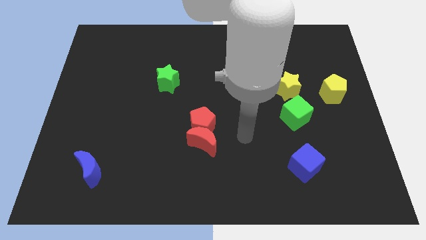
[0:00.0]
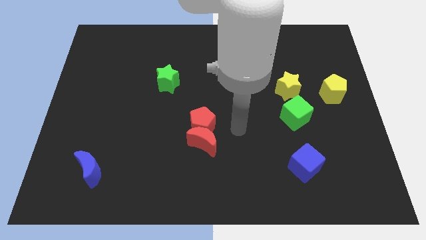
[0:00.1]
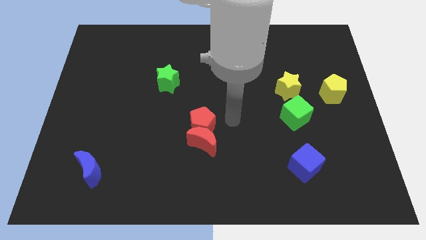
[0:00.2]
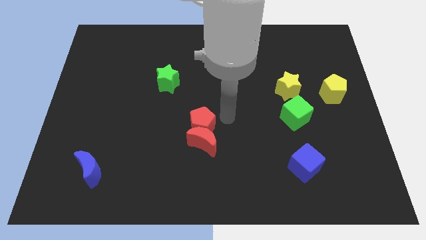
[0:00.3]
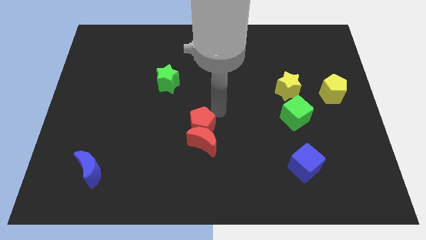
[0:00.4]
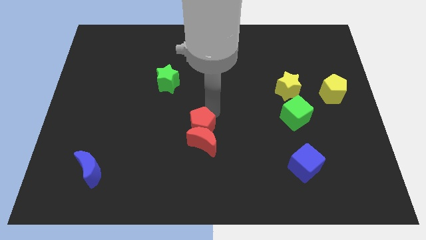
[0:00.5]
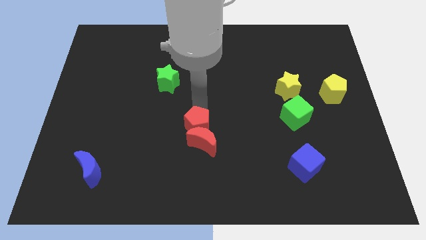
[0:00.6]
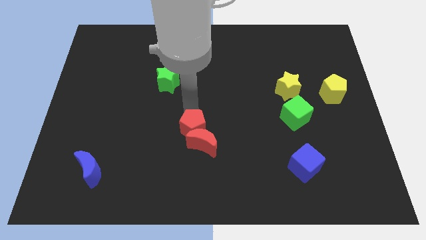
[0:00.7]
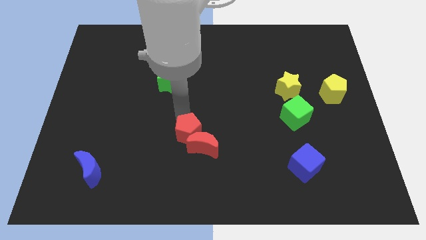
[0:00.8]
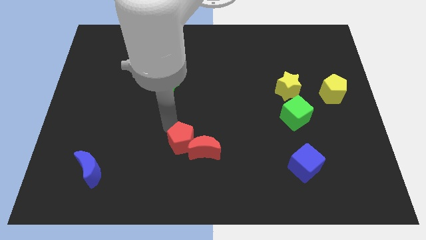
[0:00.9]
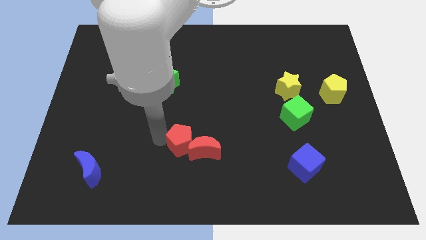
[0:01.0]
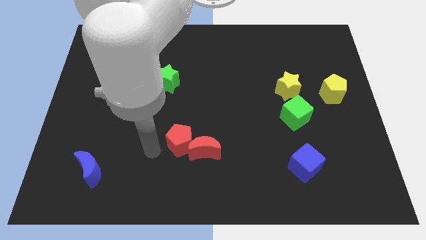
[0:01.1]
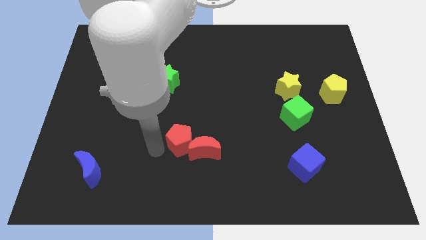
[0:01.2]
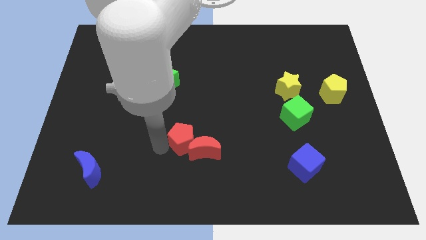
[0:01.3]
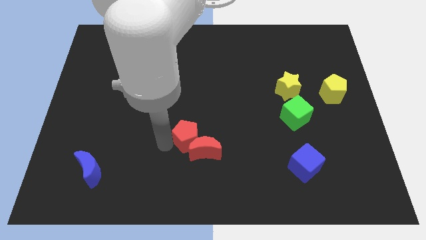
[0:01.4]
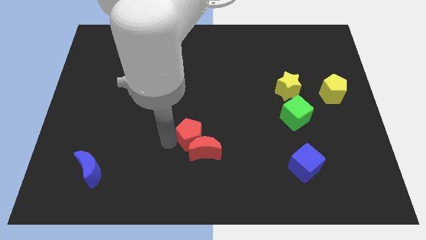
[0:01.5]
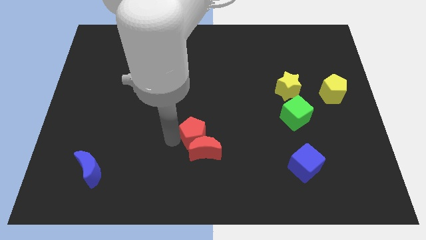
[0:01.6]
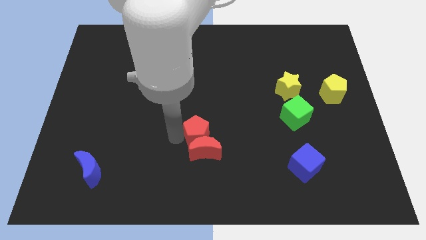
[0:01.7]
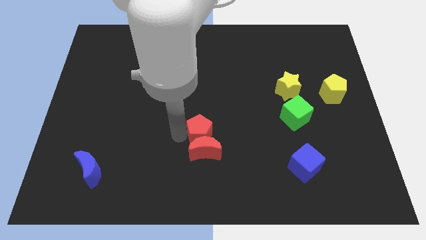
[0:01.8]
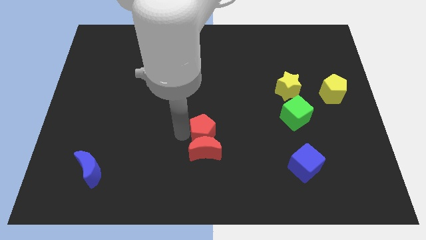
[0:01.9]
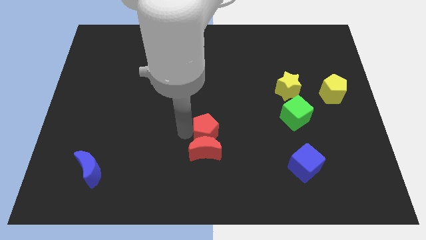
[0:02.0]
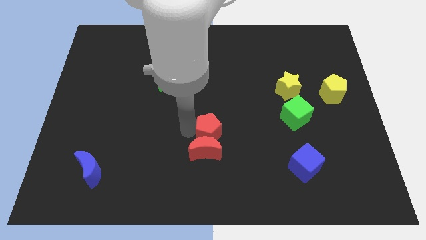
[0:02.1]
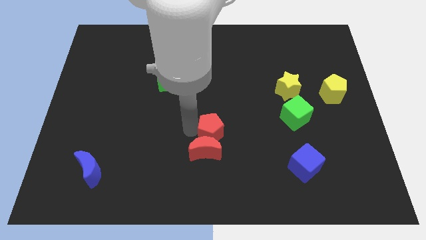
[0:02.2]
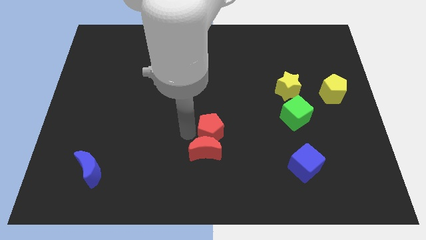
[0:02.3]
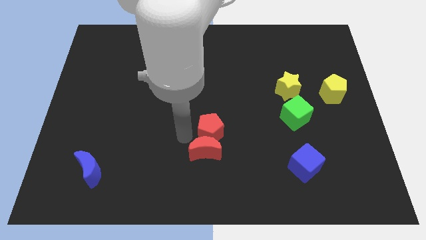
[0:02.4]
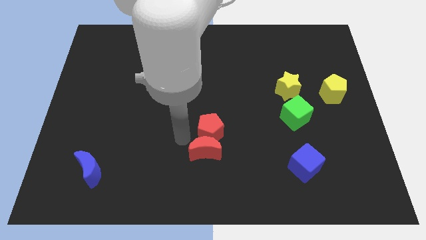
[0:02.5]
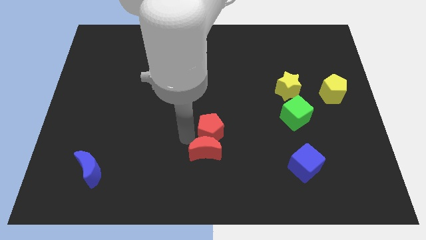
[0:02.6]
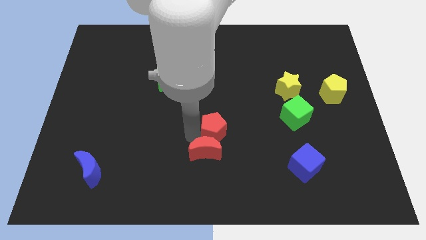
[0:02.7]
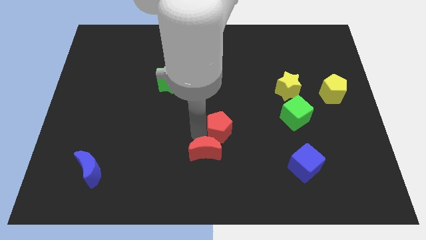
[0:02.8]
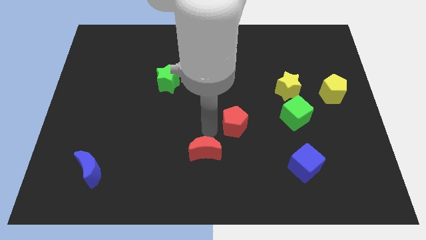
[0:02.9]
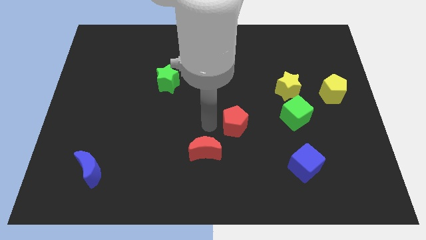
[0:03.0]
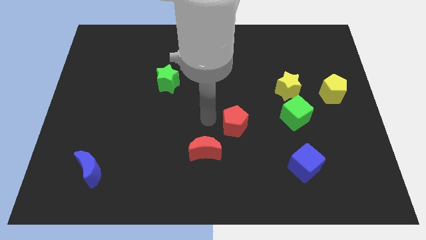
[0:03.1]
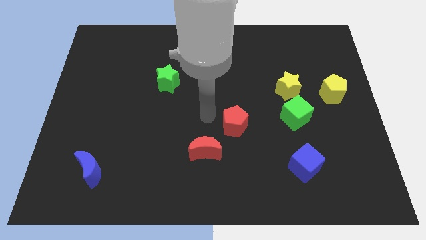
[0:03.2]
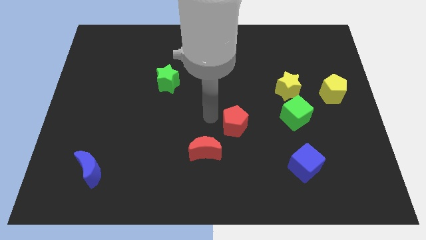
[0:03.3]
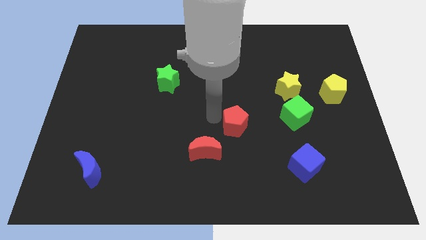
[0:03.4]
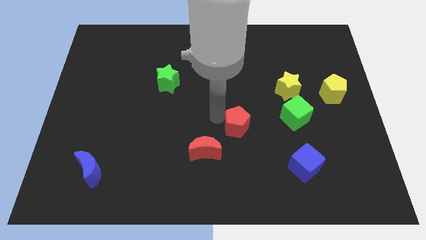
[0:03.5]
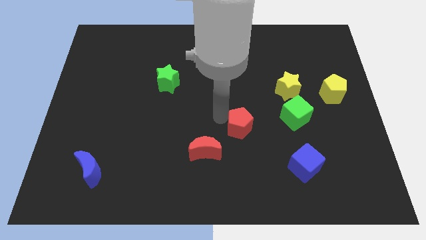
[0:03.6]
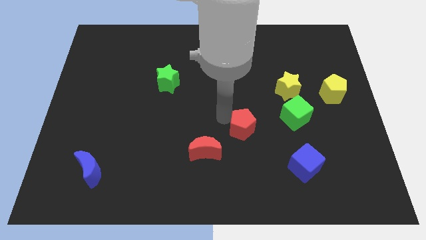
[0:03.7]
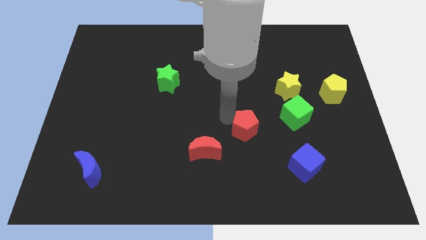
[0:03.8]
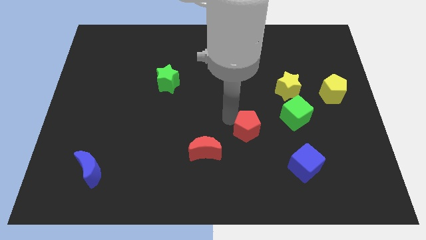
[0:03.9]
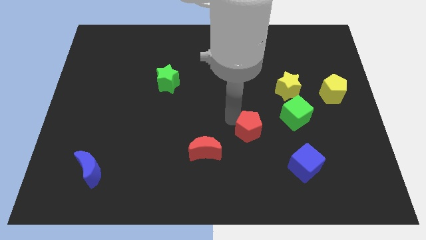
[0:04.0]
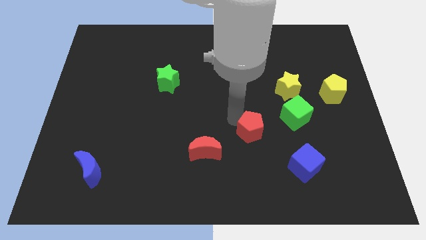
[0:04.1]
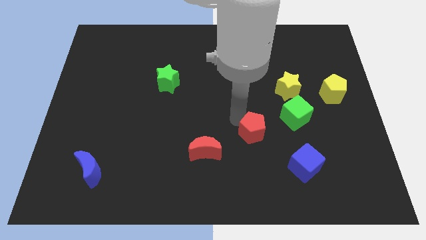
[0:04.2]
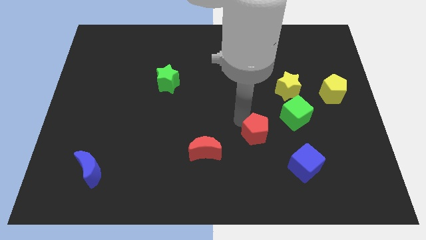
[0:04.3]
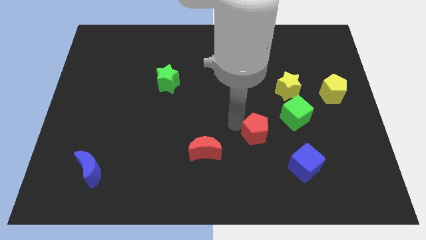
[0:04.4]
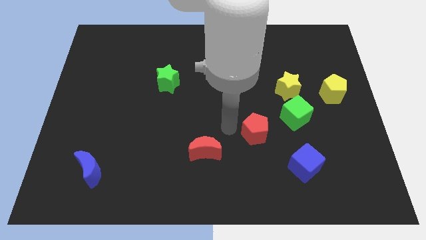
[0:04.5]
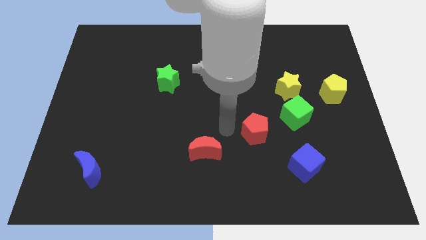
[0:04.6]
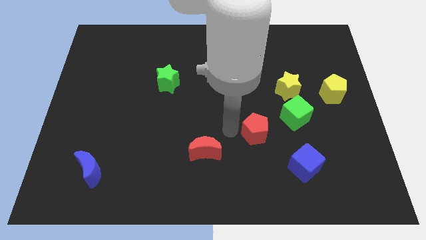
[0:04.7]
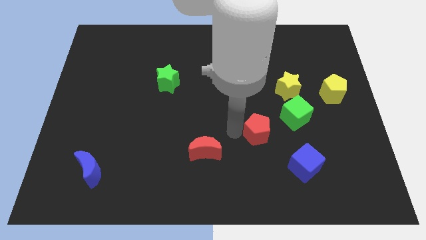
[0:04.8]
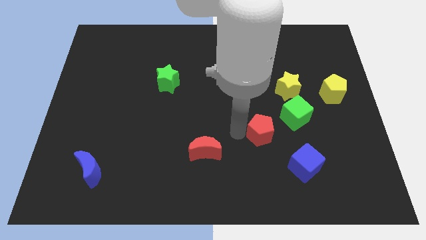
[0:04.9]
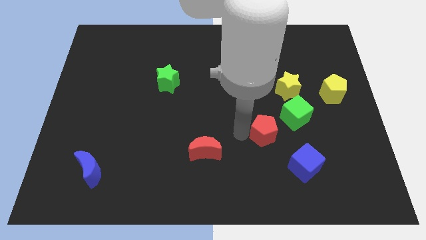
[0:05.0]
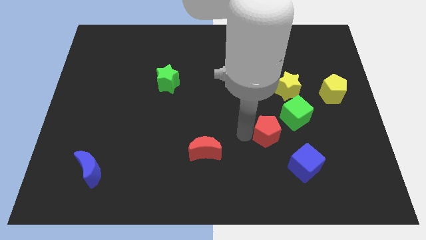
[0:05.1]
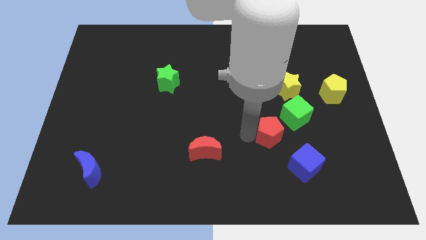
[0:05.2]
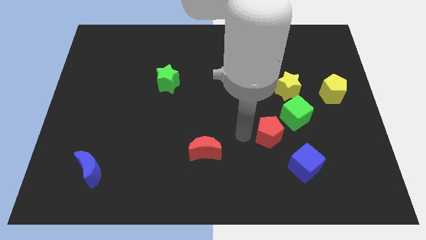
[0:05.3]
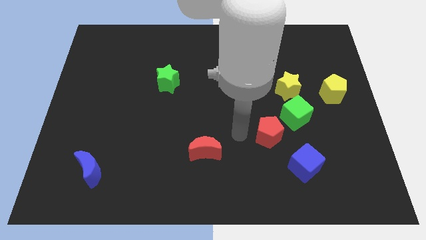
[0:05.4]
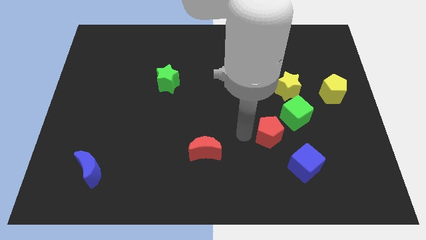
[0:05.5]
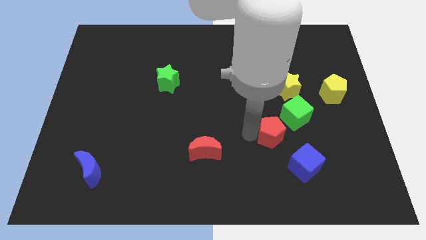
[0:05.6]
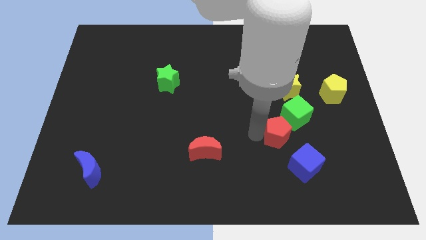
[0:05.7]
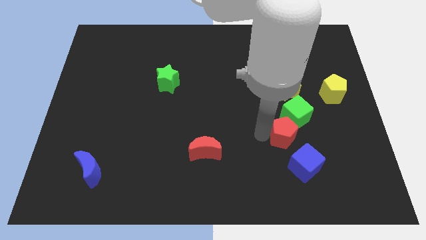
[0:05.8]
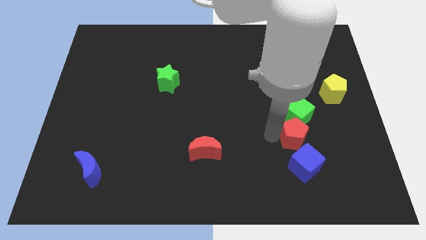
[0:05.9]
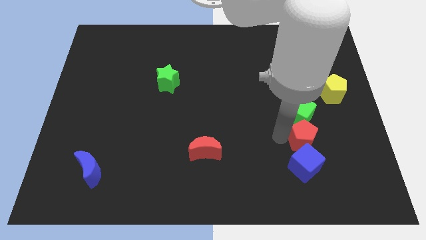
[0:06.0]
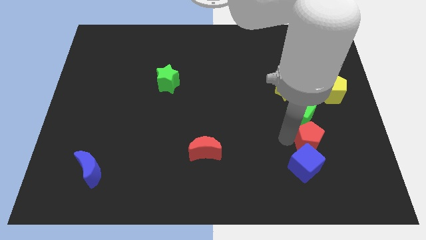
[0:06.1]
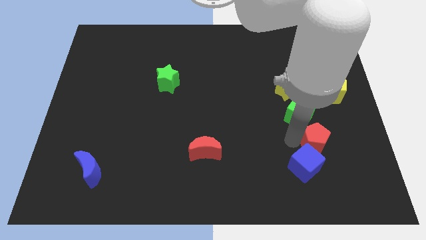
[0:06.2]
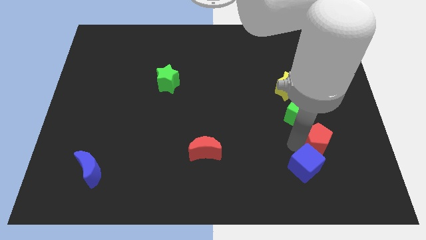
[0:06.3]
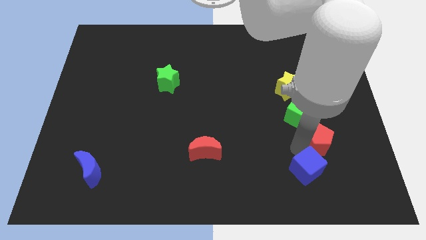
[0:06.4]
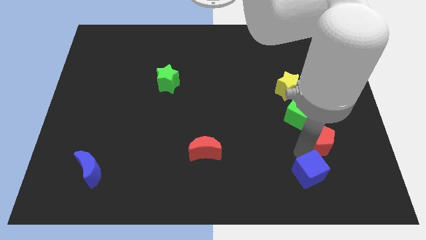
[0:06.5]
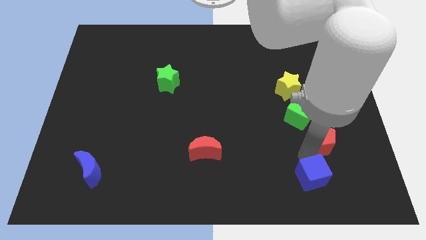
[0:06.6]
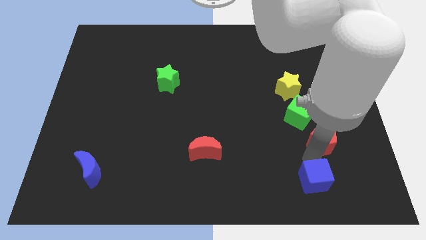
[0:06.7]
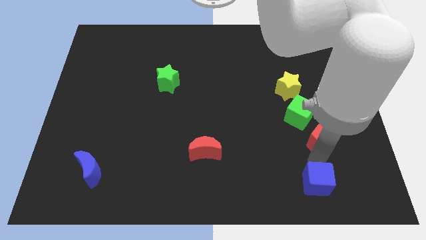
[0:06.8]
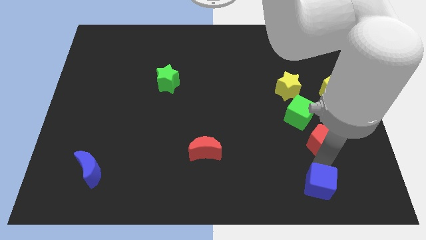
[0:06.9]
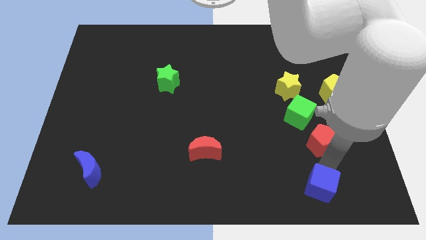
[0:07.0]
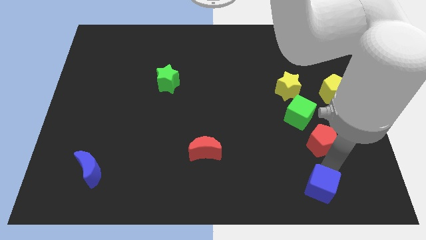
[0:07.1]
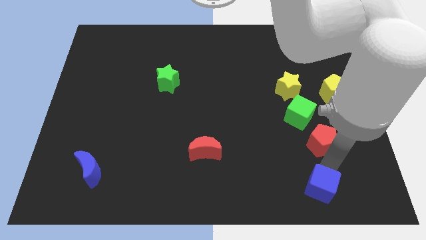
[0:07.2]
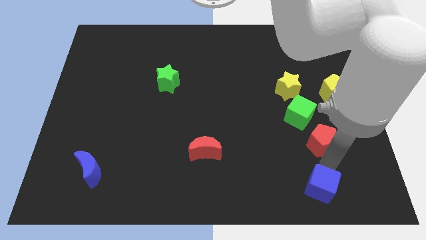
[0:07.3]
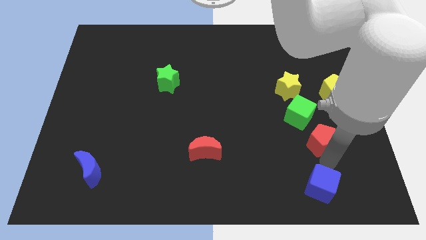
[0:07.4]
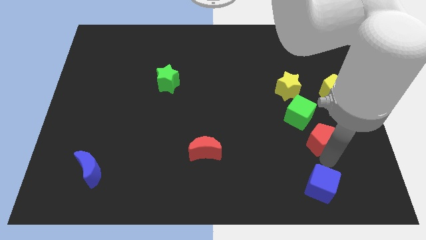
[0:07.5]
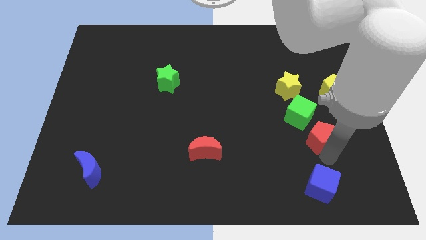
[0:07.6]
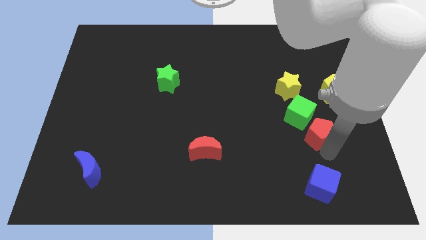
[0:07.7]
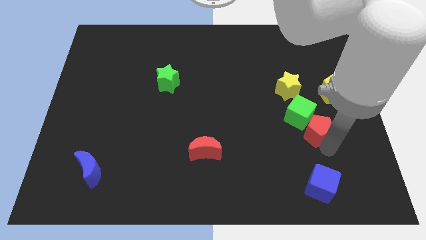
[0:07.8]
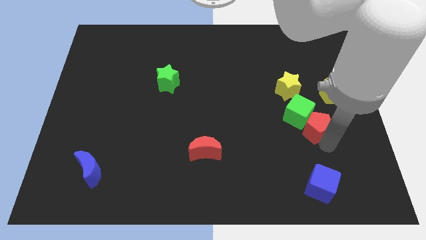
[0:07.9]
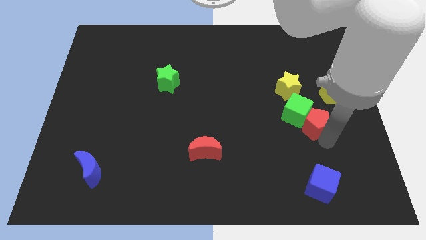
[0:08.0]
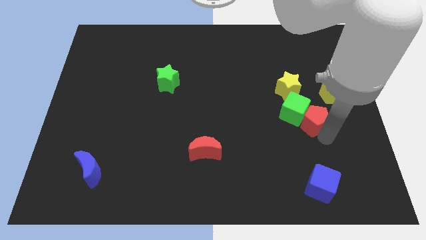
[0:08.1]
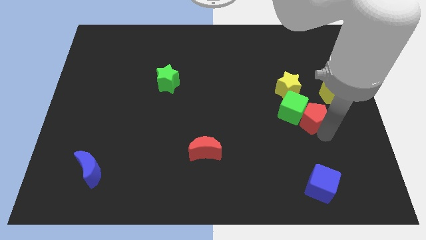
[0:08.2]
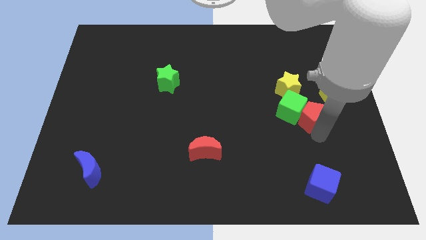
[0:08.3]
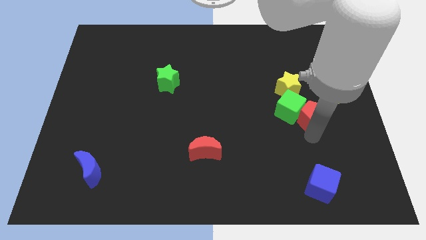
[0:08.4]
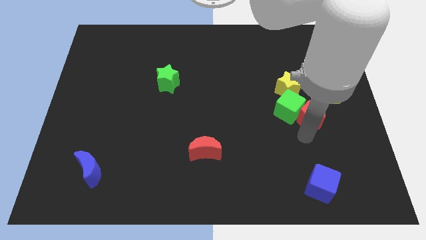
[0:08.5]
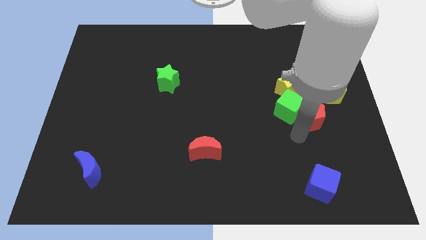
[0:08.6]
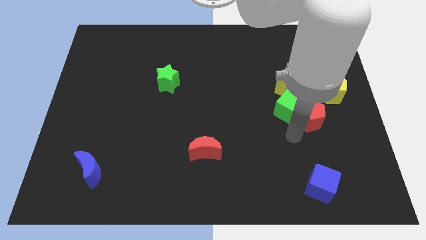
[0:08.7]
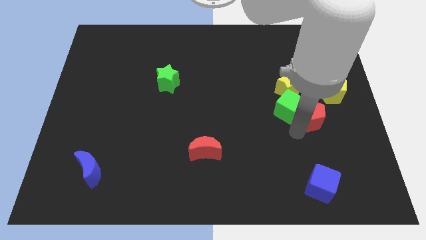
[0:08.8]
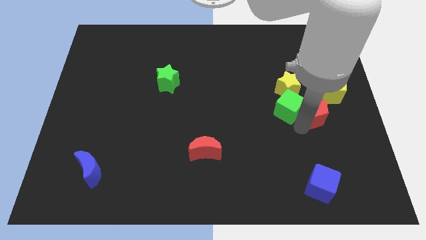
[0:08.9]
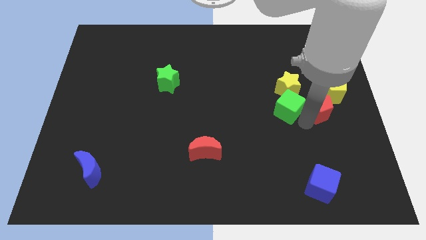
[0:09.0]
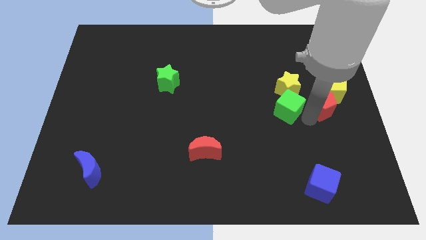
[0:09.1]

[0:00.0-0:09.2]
move the red pentagon towards the yellow pentagon
